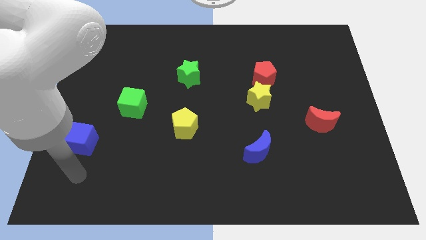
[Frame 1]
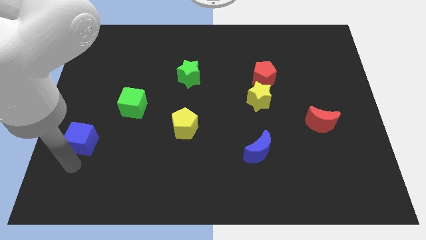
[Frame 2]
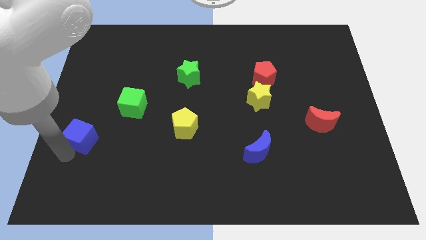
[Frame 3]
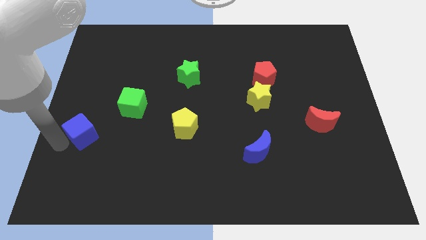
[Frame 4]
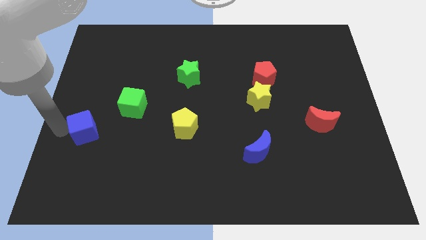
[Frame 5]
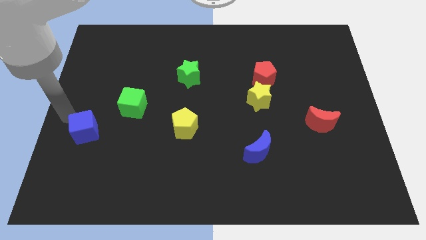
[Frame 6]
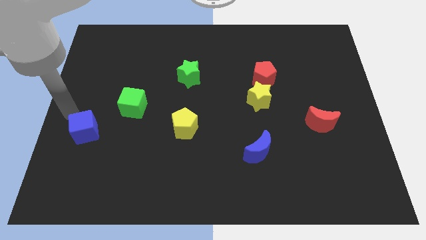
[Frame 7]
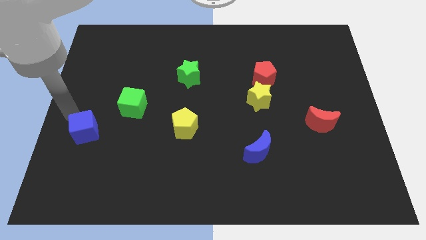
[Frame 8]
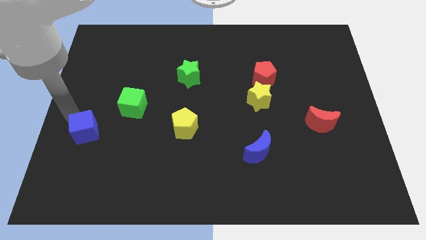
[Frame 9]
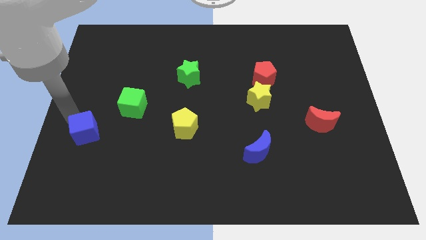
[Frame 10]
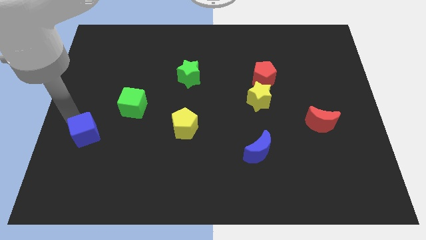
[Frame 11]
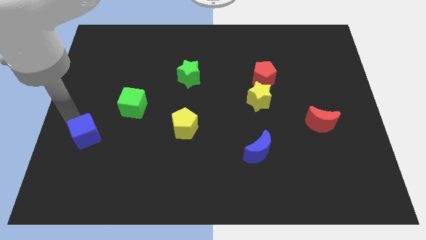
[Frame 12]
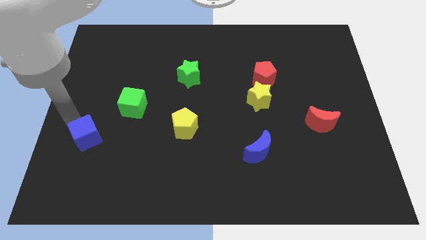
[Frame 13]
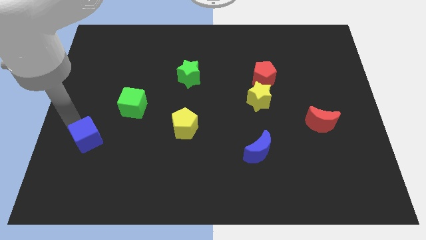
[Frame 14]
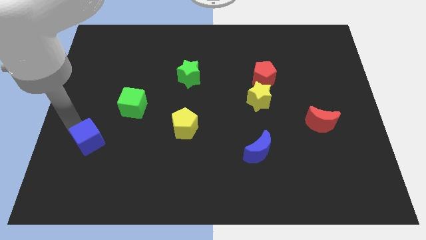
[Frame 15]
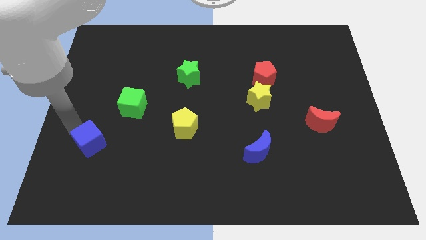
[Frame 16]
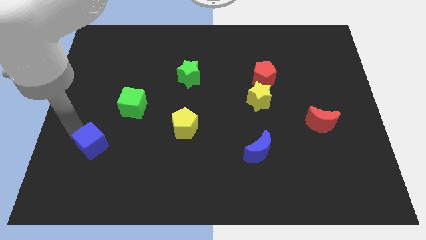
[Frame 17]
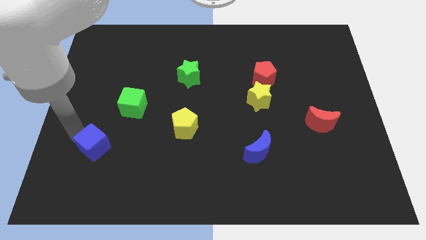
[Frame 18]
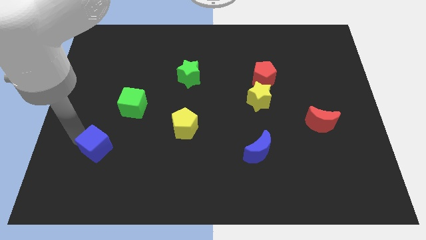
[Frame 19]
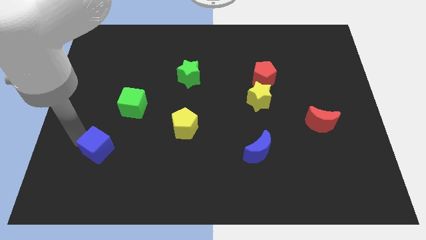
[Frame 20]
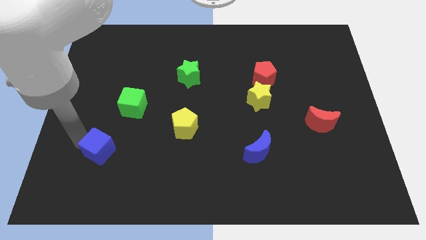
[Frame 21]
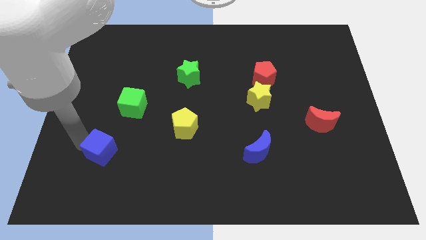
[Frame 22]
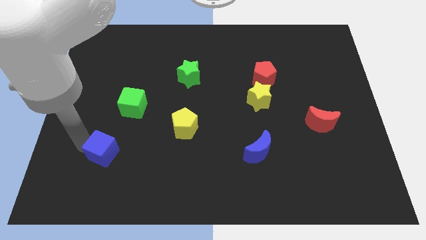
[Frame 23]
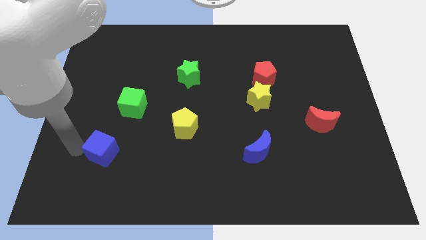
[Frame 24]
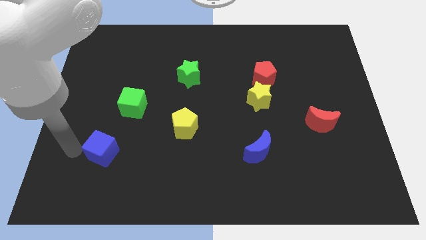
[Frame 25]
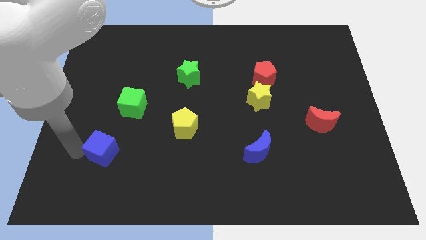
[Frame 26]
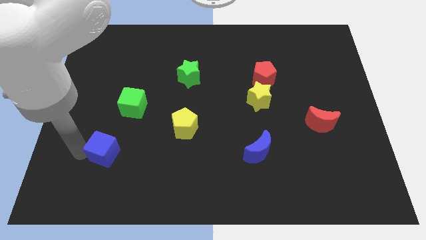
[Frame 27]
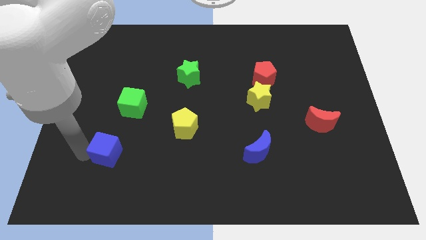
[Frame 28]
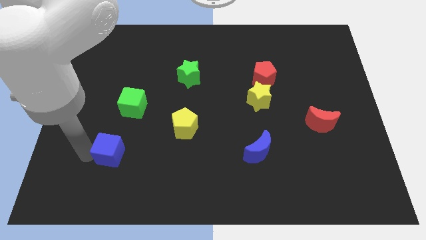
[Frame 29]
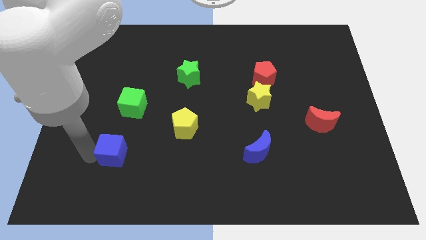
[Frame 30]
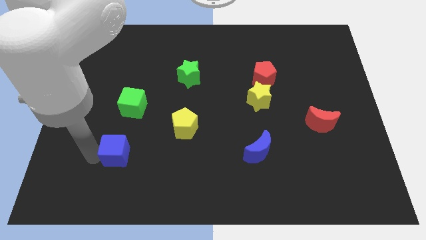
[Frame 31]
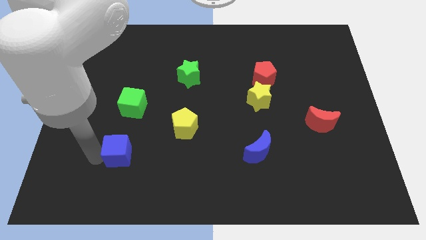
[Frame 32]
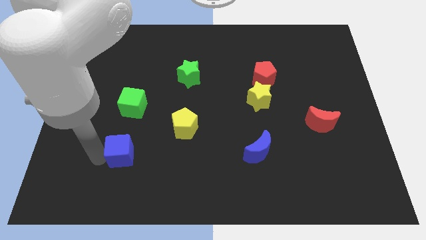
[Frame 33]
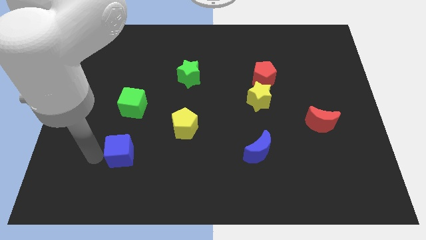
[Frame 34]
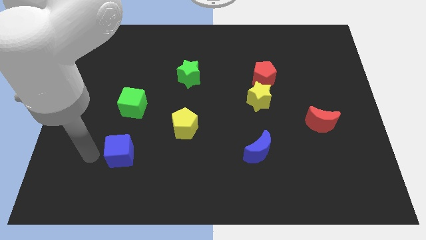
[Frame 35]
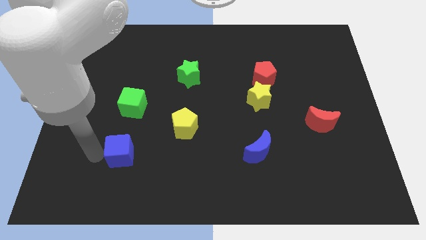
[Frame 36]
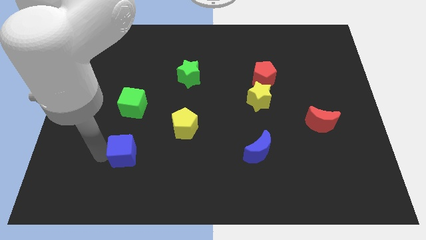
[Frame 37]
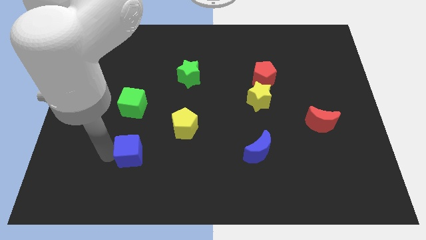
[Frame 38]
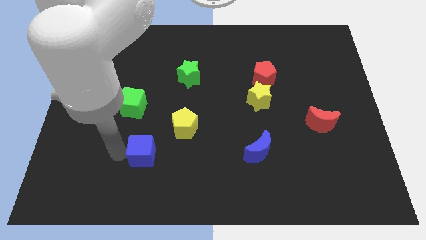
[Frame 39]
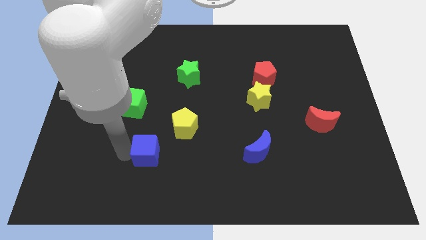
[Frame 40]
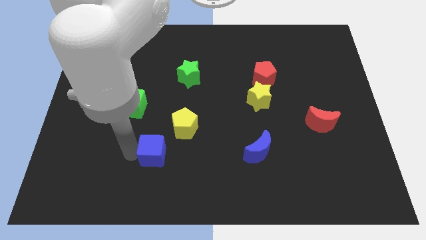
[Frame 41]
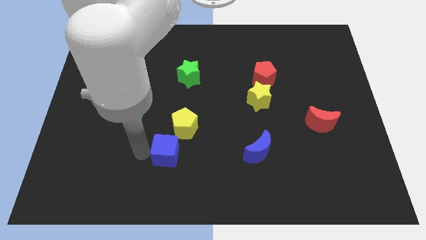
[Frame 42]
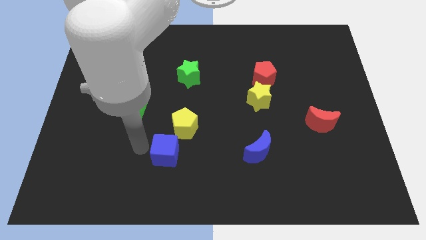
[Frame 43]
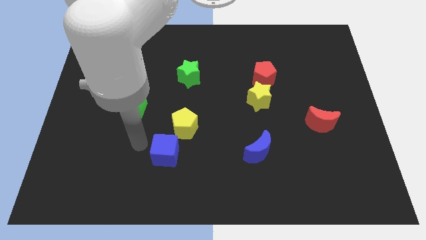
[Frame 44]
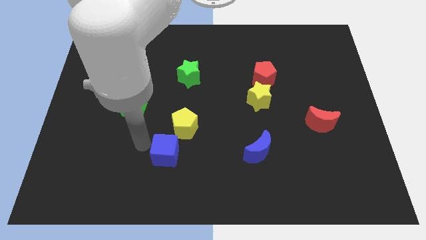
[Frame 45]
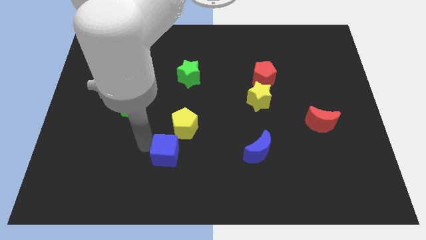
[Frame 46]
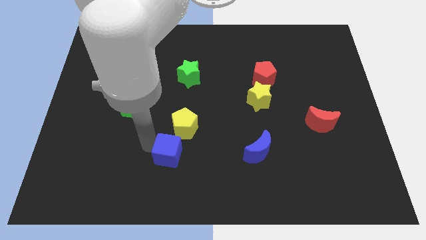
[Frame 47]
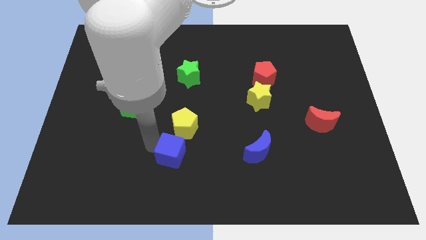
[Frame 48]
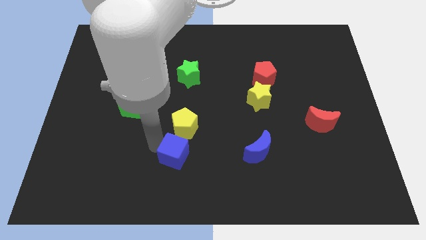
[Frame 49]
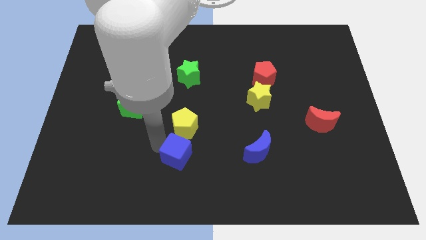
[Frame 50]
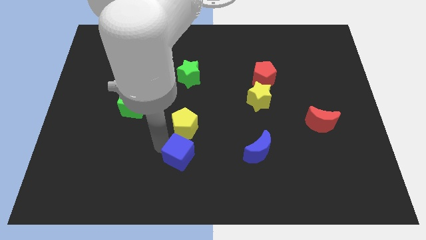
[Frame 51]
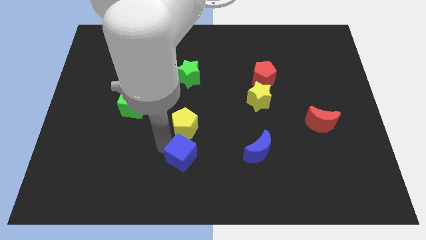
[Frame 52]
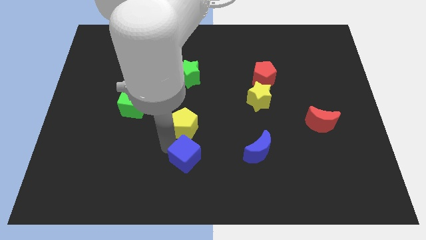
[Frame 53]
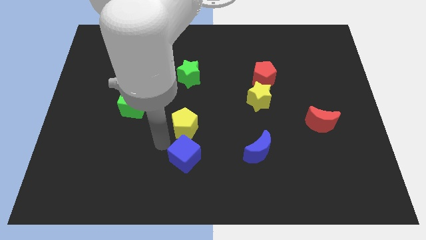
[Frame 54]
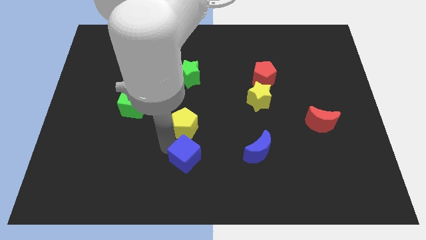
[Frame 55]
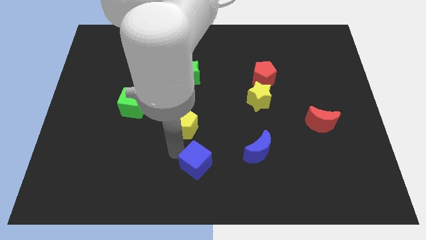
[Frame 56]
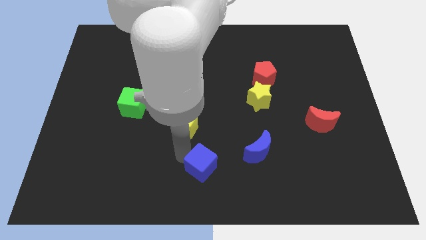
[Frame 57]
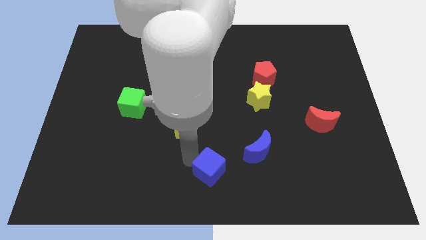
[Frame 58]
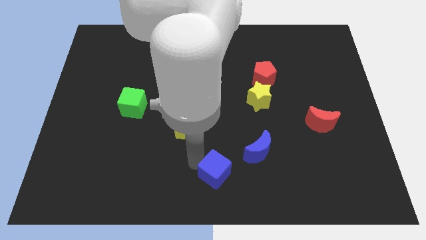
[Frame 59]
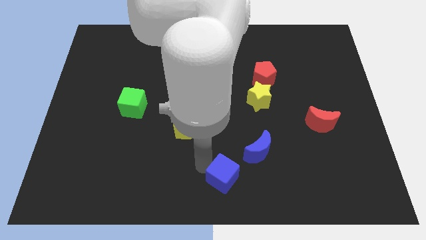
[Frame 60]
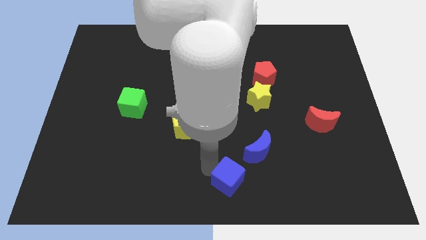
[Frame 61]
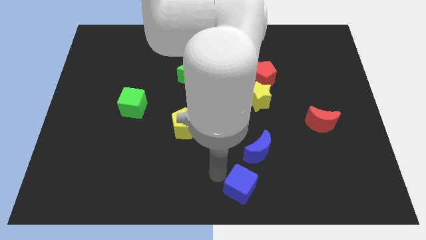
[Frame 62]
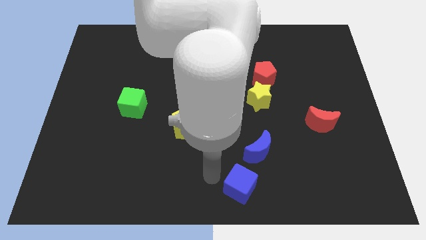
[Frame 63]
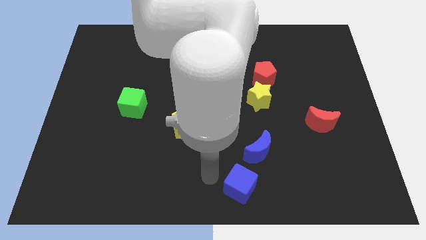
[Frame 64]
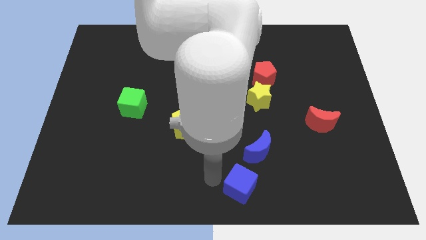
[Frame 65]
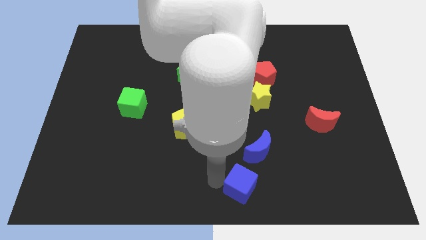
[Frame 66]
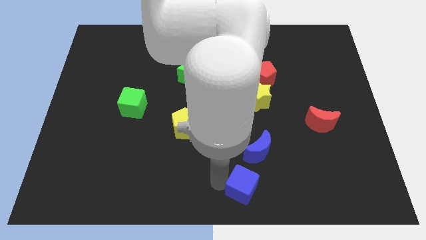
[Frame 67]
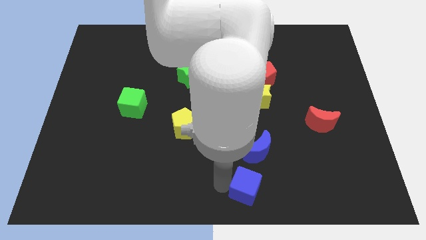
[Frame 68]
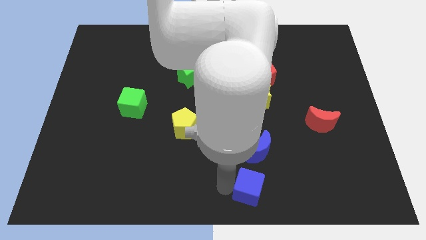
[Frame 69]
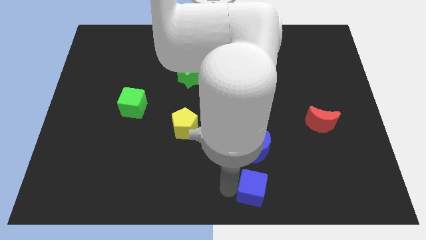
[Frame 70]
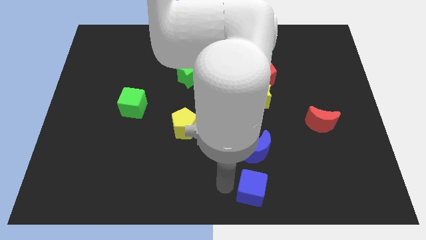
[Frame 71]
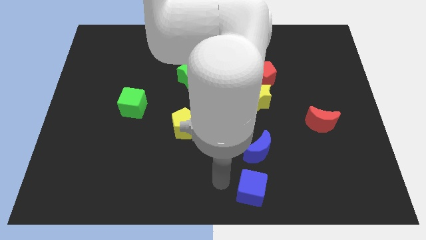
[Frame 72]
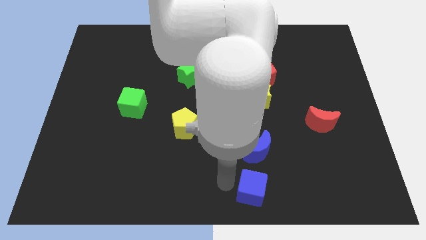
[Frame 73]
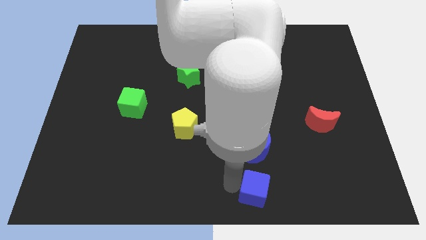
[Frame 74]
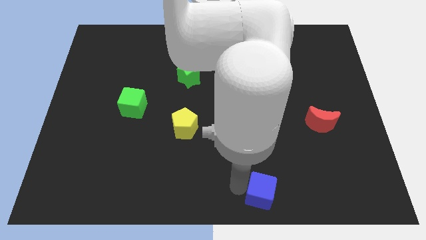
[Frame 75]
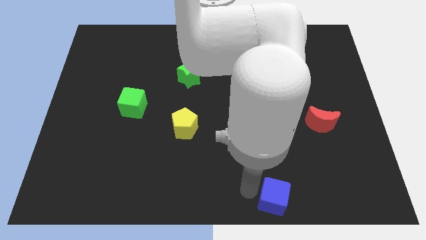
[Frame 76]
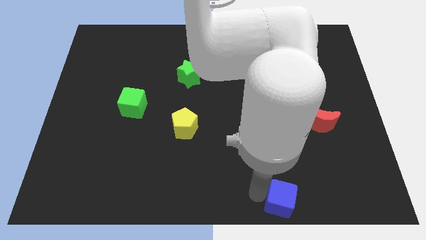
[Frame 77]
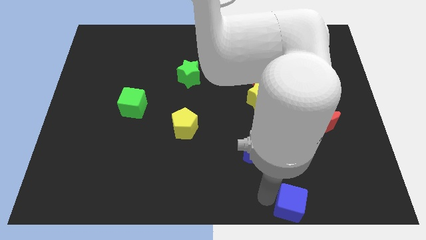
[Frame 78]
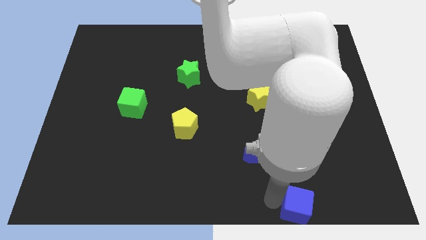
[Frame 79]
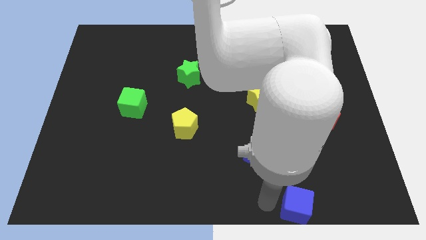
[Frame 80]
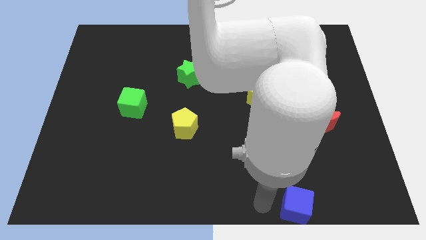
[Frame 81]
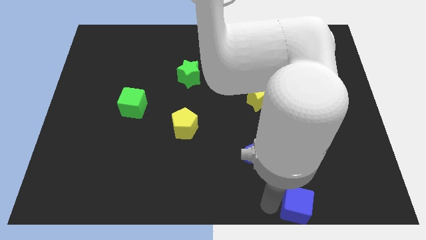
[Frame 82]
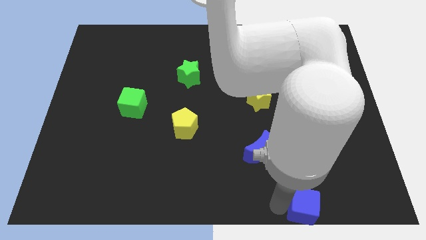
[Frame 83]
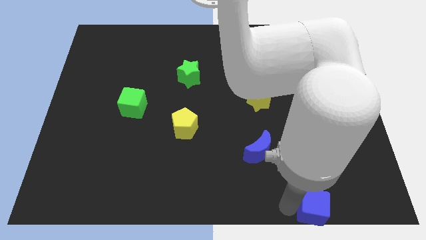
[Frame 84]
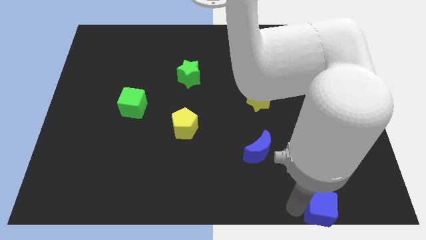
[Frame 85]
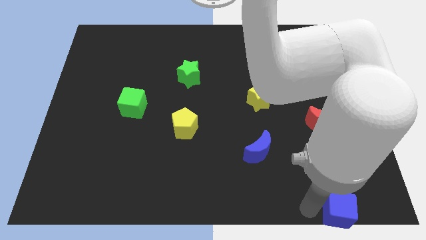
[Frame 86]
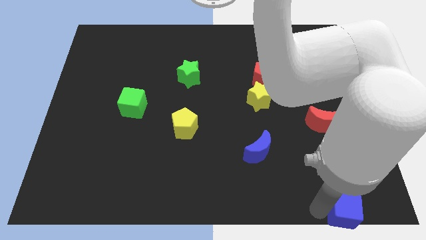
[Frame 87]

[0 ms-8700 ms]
put the blue cube to the bottom right
